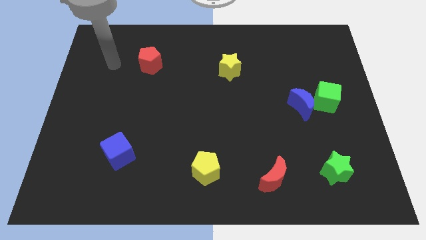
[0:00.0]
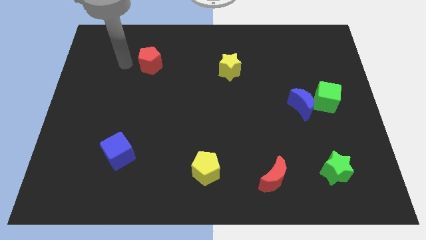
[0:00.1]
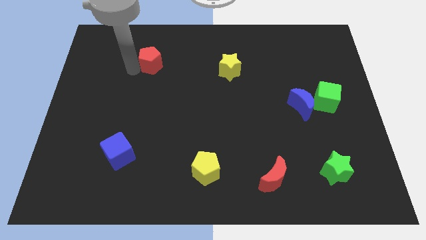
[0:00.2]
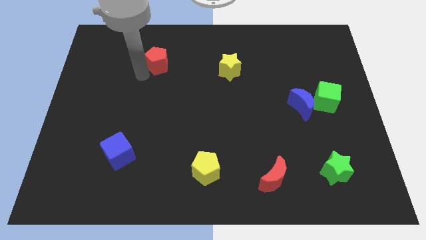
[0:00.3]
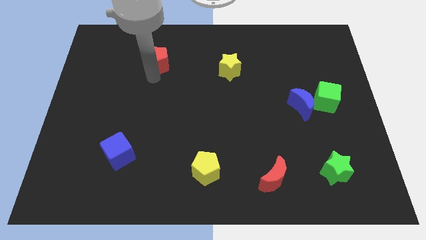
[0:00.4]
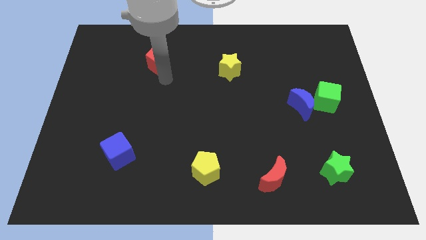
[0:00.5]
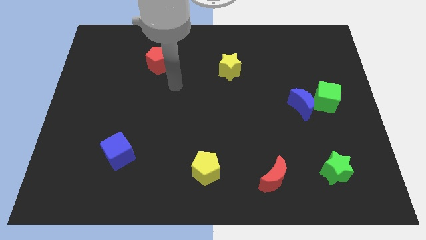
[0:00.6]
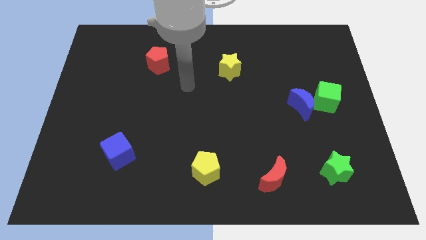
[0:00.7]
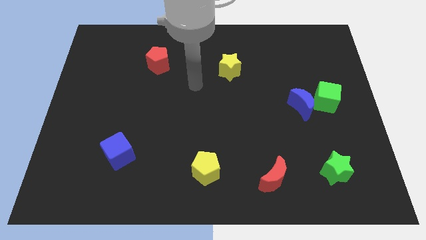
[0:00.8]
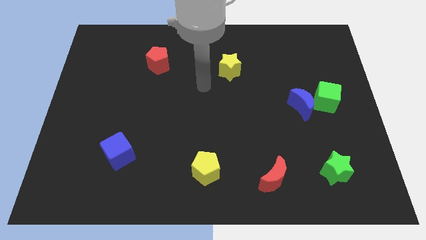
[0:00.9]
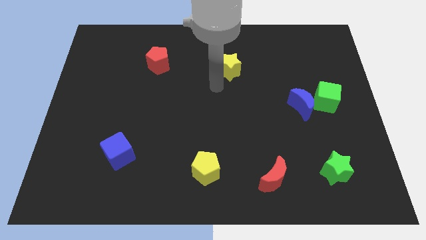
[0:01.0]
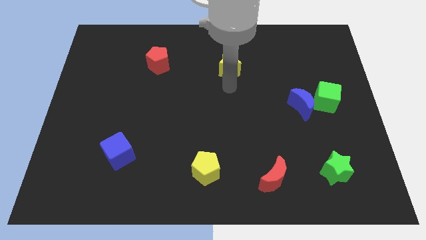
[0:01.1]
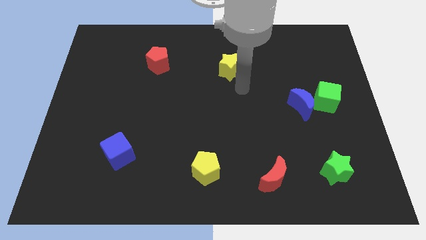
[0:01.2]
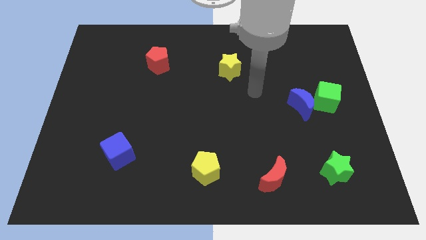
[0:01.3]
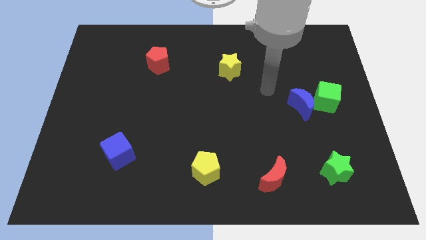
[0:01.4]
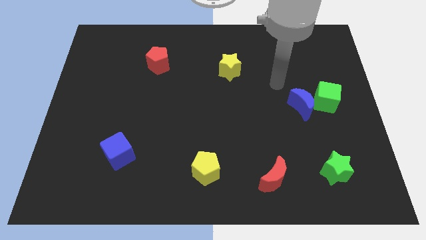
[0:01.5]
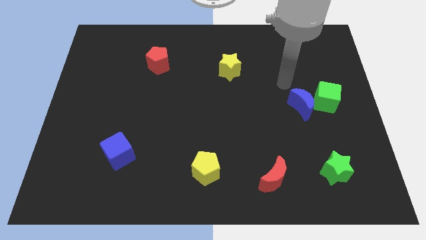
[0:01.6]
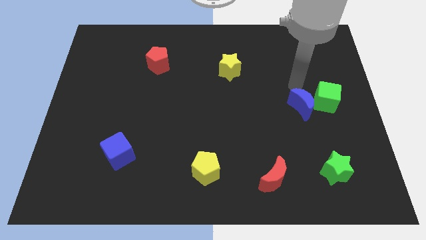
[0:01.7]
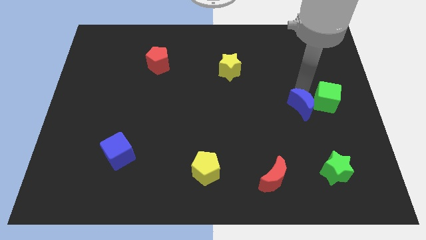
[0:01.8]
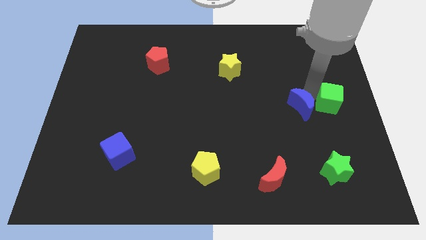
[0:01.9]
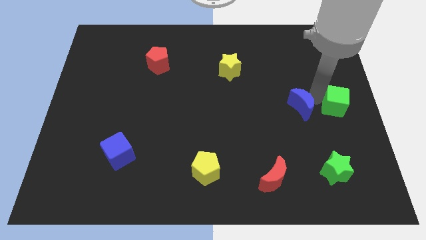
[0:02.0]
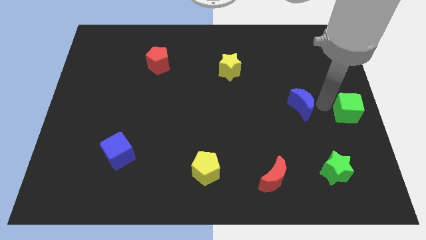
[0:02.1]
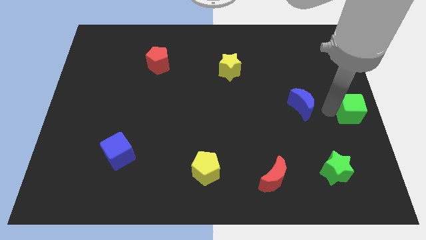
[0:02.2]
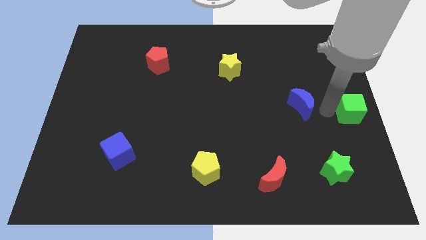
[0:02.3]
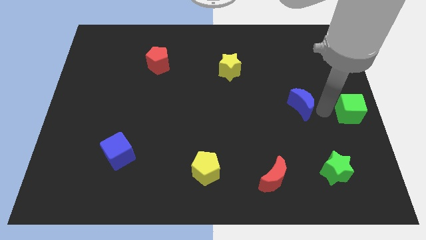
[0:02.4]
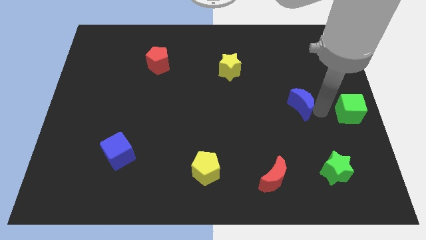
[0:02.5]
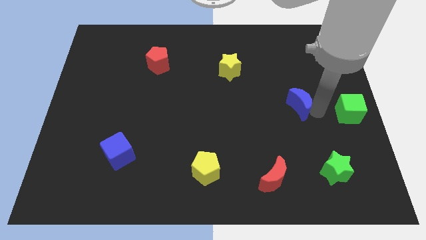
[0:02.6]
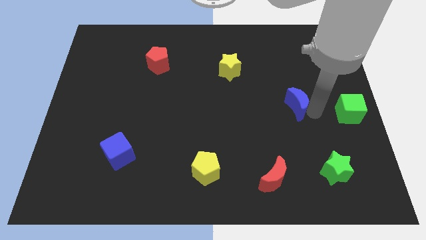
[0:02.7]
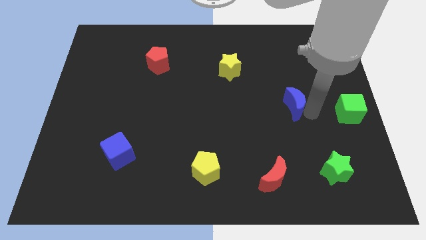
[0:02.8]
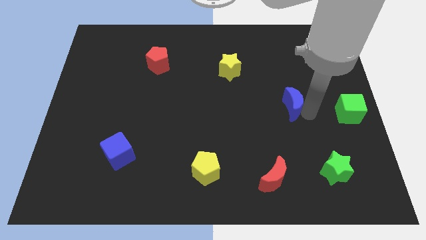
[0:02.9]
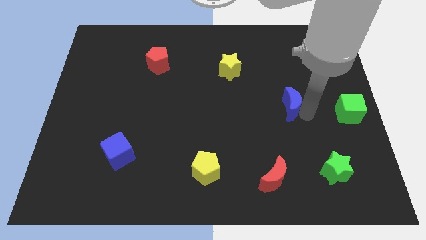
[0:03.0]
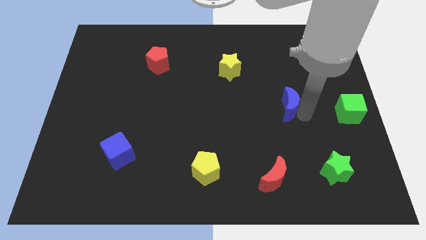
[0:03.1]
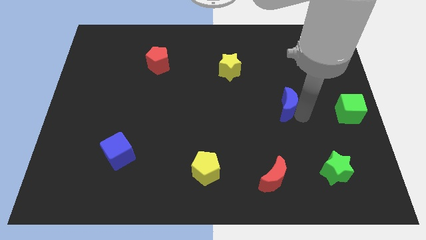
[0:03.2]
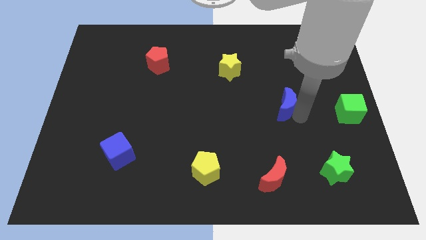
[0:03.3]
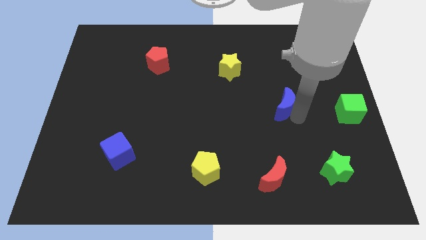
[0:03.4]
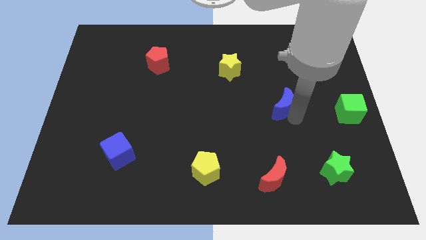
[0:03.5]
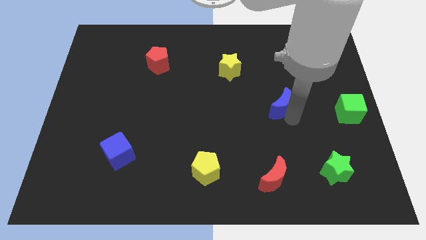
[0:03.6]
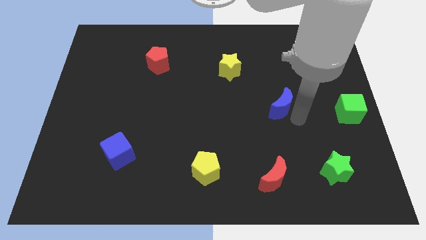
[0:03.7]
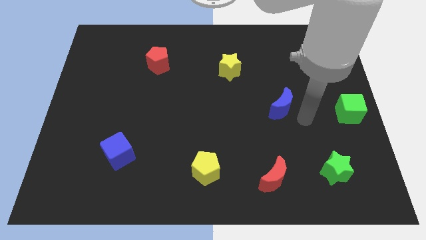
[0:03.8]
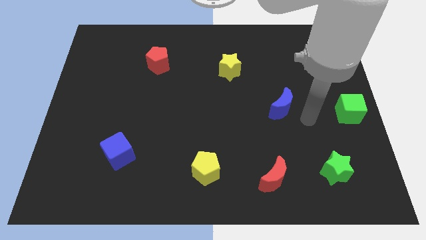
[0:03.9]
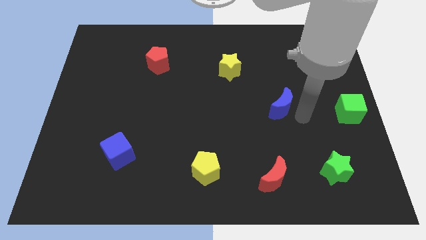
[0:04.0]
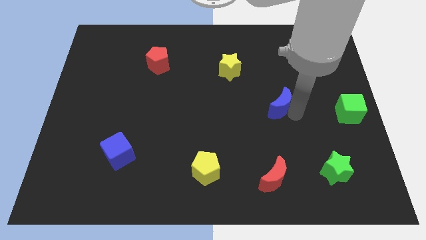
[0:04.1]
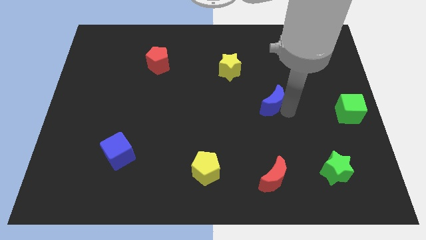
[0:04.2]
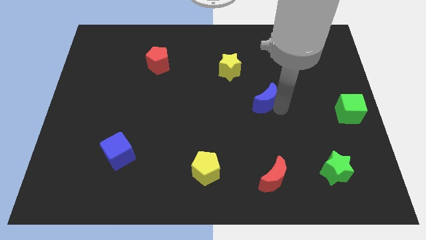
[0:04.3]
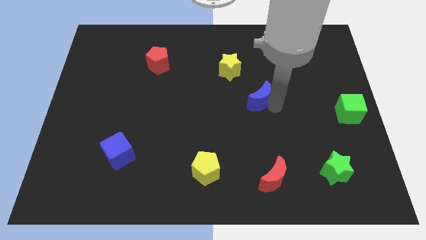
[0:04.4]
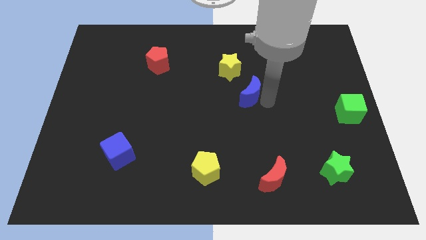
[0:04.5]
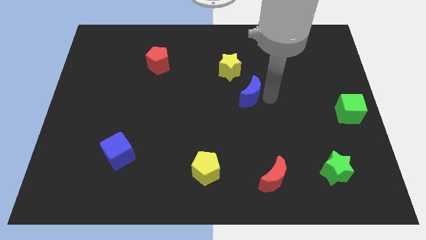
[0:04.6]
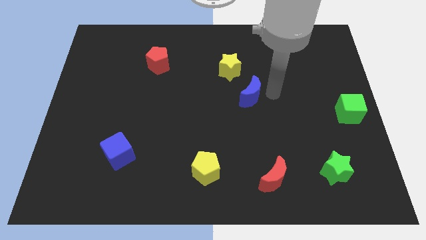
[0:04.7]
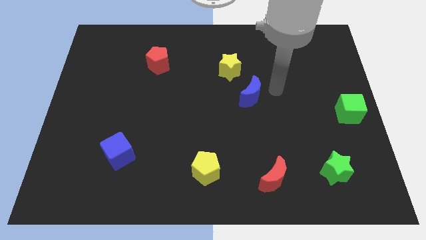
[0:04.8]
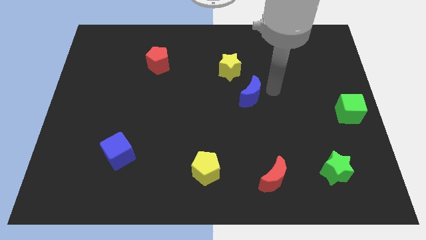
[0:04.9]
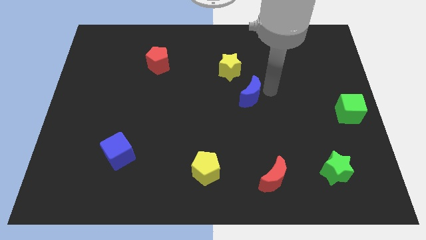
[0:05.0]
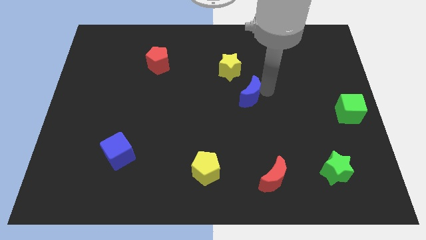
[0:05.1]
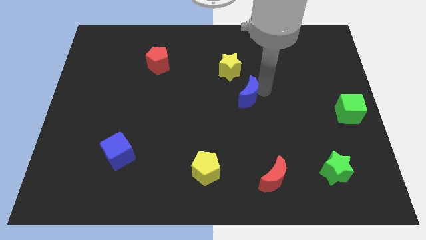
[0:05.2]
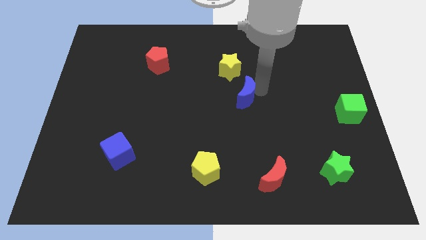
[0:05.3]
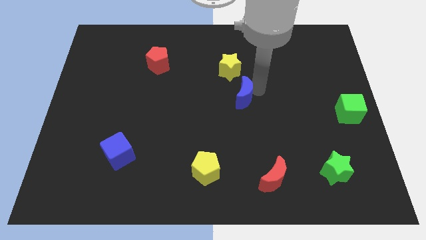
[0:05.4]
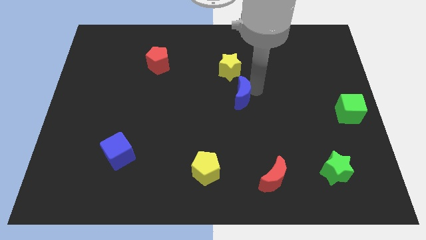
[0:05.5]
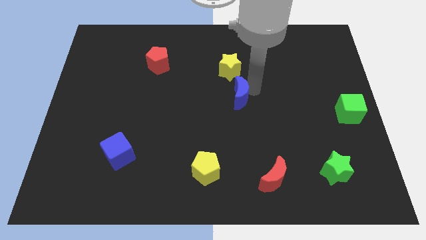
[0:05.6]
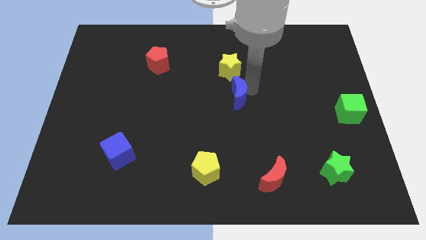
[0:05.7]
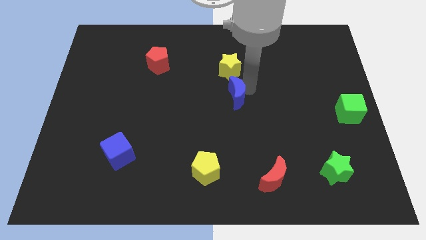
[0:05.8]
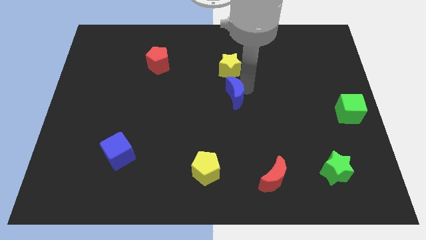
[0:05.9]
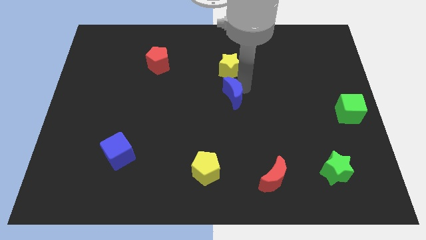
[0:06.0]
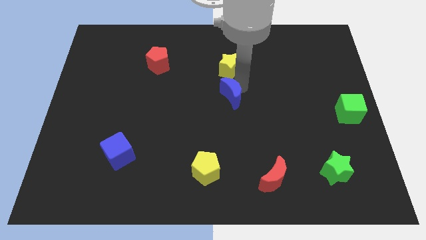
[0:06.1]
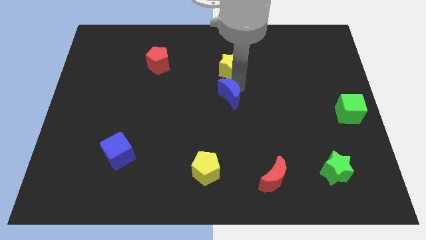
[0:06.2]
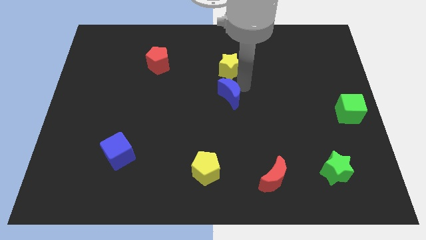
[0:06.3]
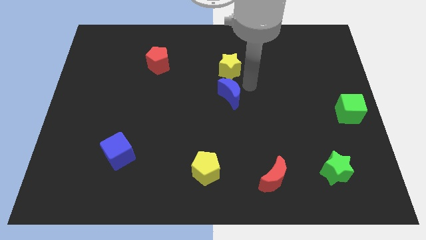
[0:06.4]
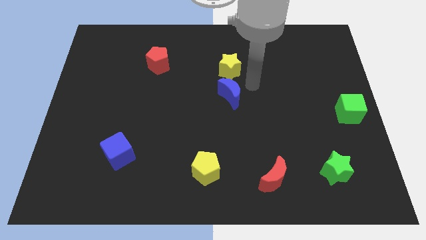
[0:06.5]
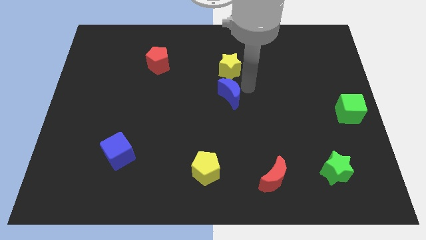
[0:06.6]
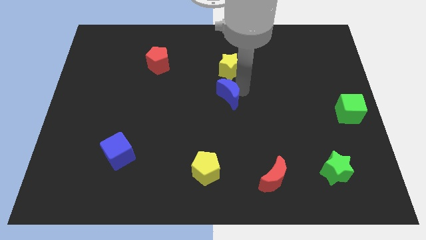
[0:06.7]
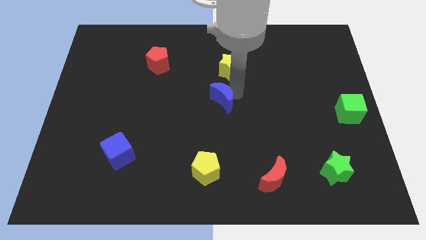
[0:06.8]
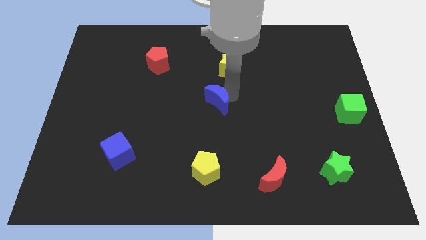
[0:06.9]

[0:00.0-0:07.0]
move the blue moon to the left

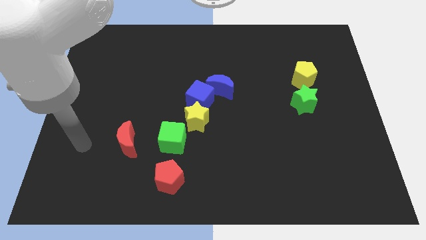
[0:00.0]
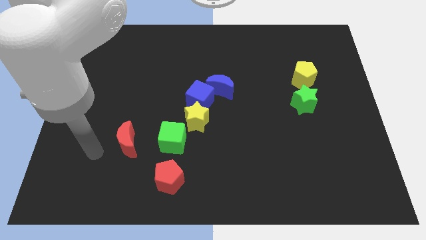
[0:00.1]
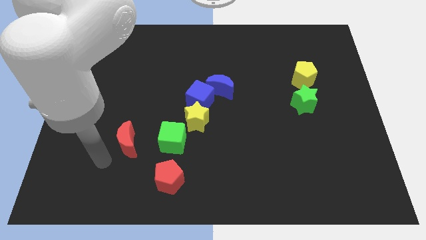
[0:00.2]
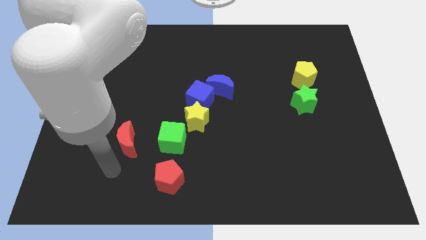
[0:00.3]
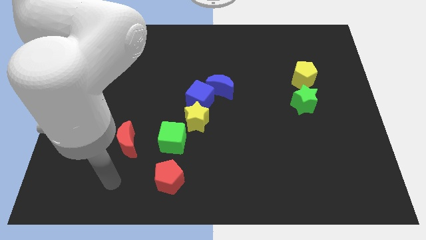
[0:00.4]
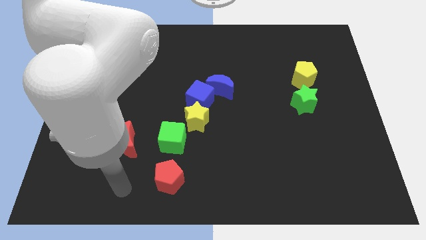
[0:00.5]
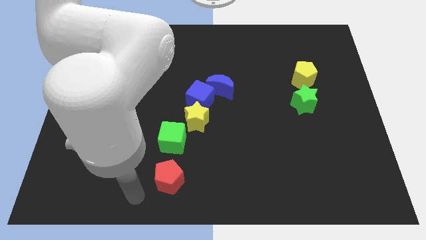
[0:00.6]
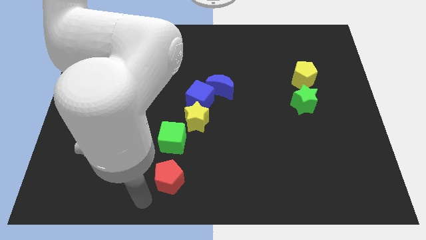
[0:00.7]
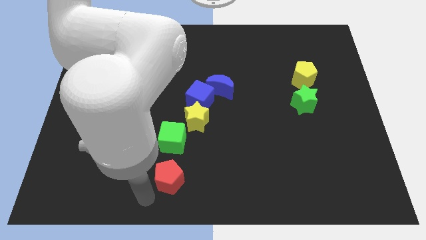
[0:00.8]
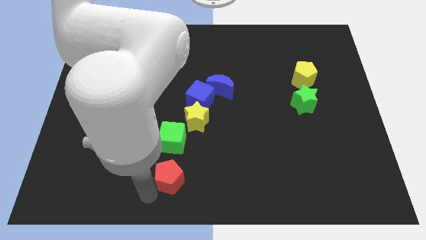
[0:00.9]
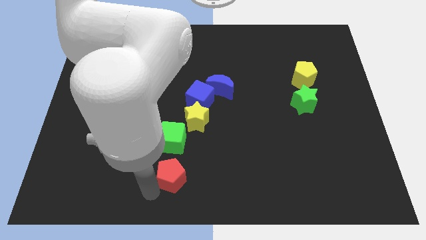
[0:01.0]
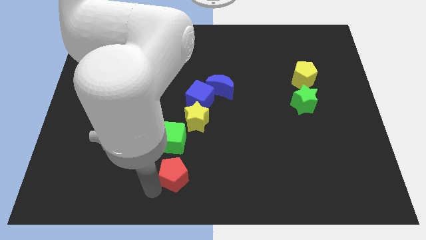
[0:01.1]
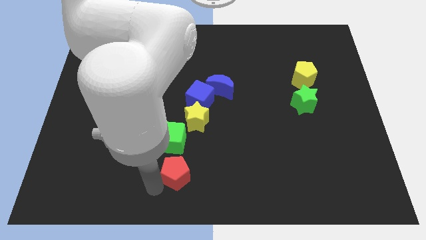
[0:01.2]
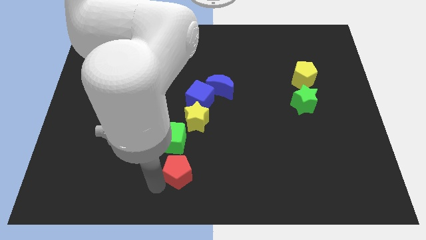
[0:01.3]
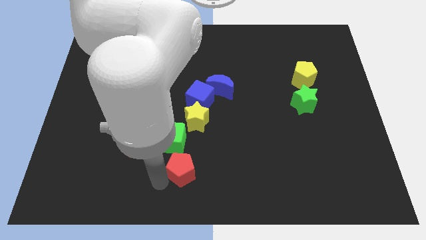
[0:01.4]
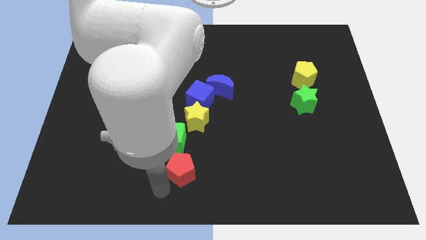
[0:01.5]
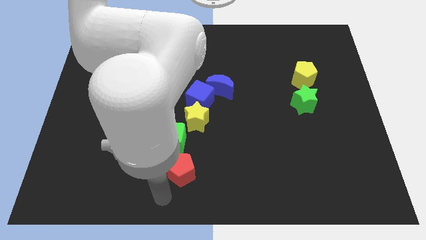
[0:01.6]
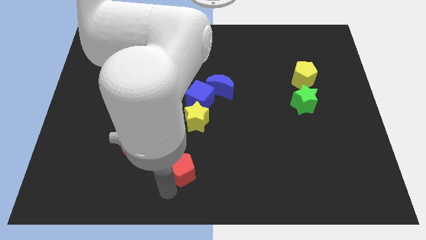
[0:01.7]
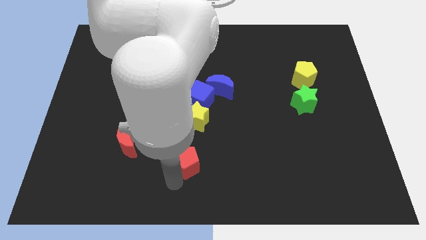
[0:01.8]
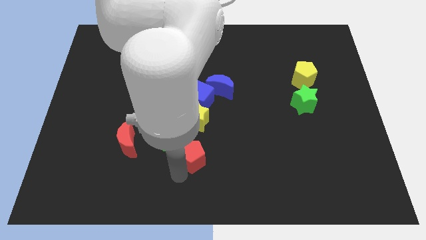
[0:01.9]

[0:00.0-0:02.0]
slide the red pentagon diagonally up and to the right somewhat
